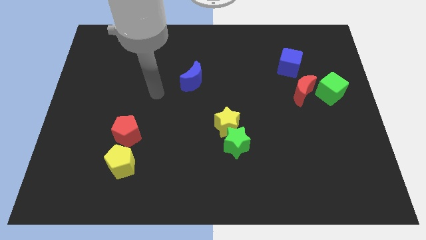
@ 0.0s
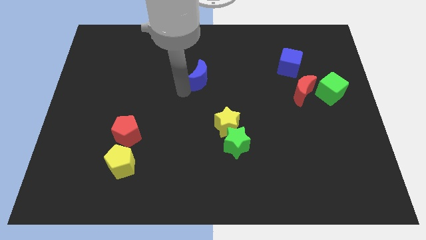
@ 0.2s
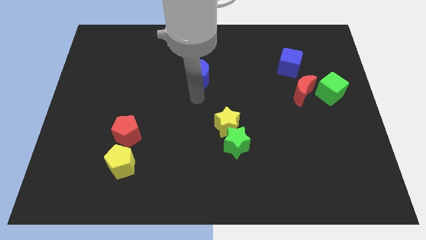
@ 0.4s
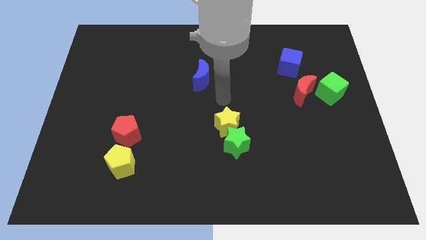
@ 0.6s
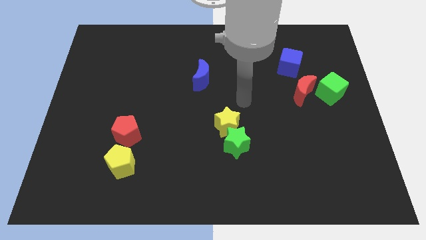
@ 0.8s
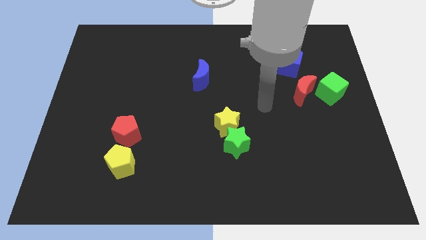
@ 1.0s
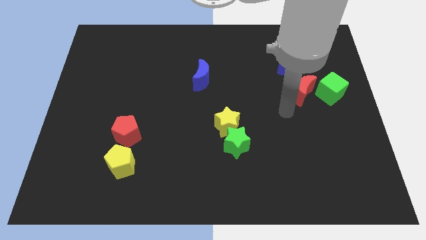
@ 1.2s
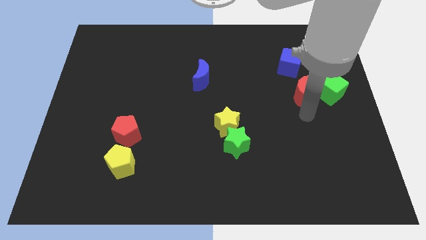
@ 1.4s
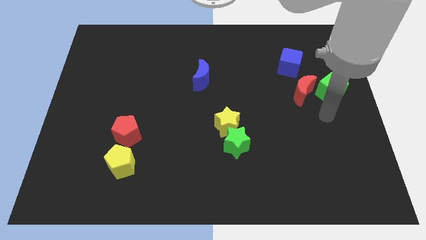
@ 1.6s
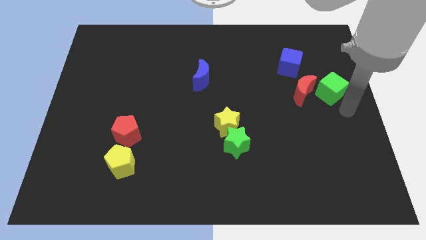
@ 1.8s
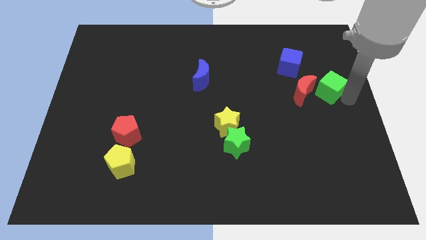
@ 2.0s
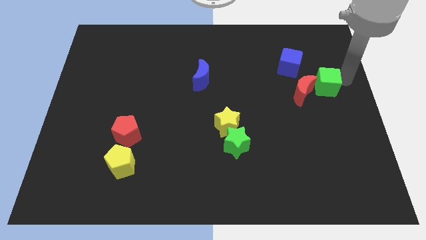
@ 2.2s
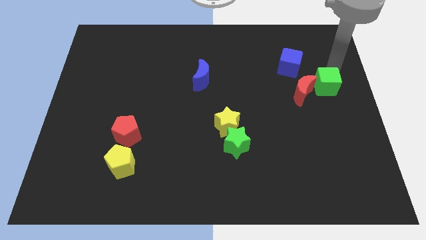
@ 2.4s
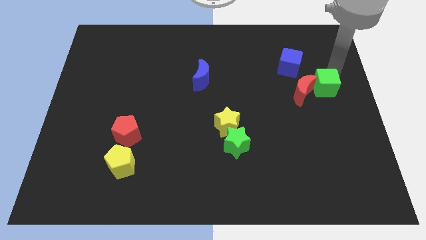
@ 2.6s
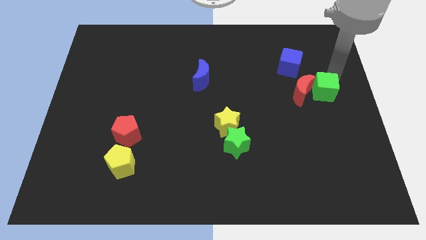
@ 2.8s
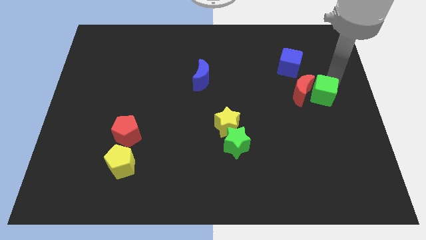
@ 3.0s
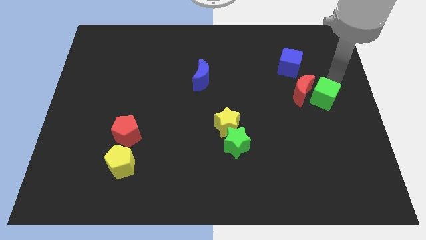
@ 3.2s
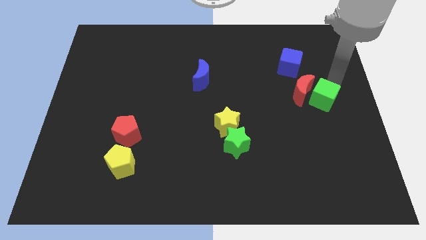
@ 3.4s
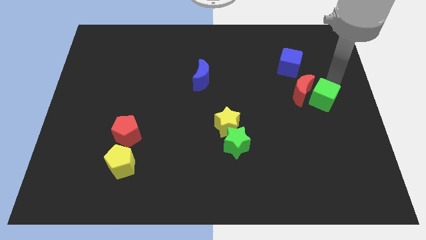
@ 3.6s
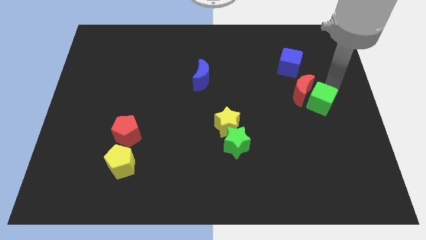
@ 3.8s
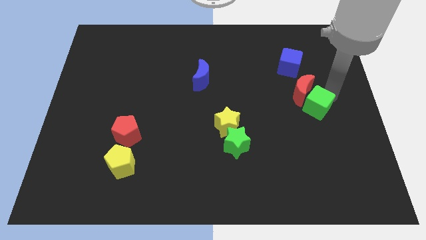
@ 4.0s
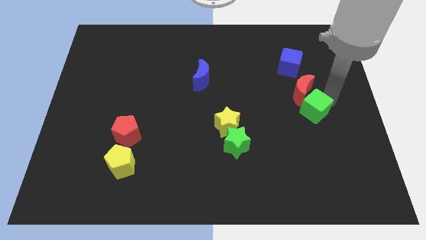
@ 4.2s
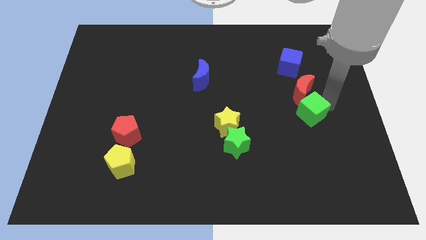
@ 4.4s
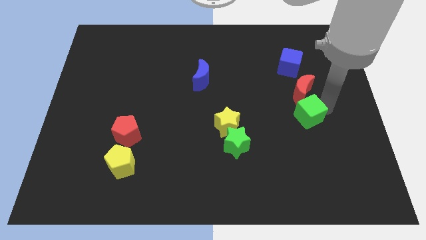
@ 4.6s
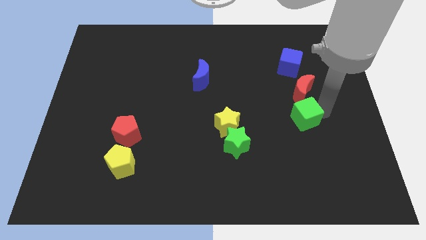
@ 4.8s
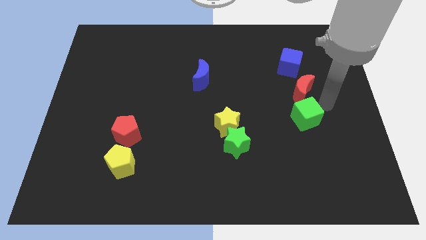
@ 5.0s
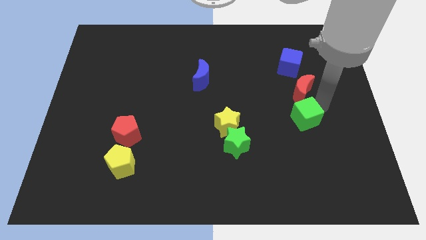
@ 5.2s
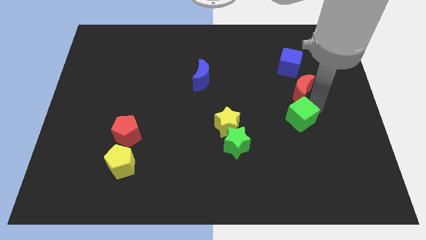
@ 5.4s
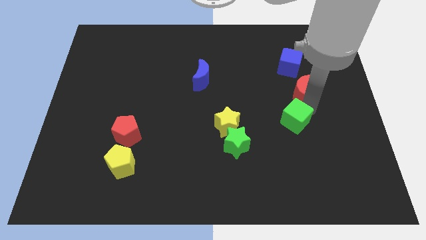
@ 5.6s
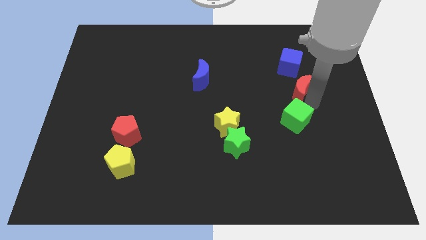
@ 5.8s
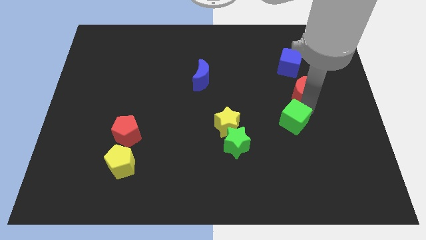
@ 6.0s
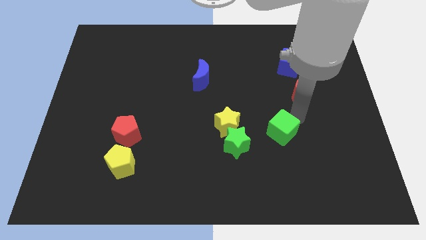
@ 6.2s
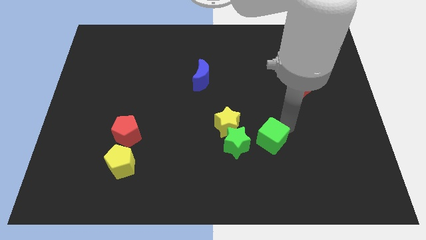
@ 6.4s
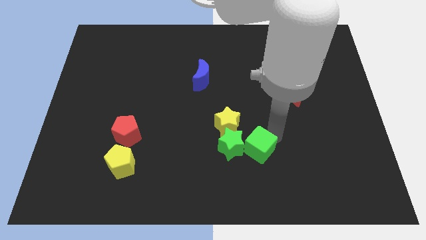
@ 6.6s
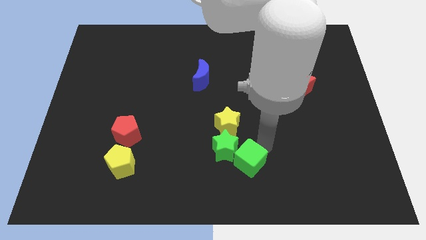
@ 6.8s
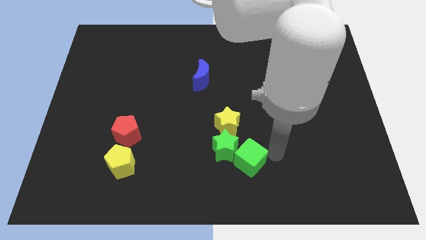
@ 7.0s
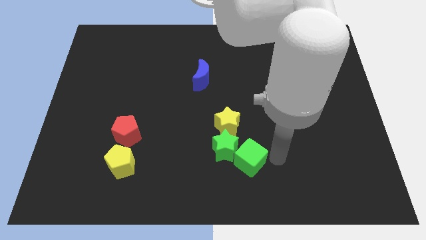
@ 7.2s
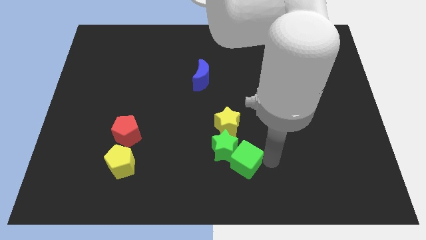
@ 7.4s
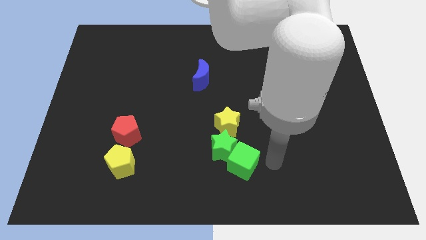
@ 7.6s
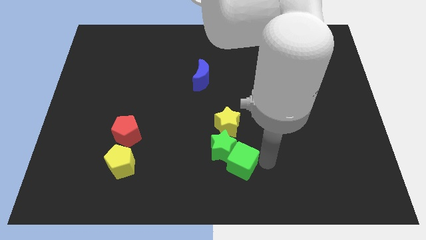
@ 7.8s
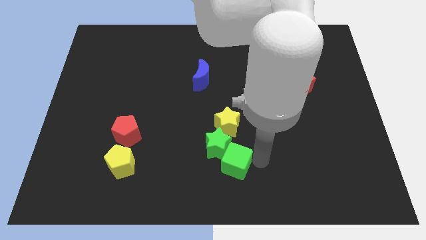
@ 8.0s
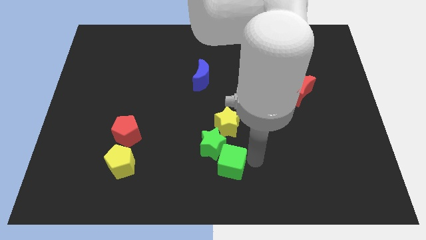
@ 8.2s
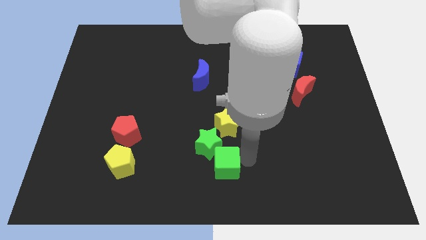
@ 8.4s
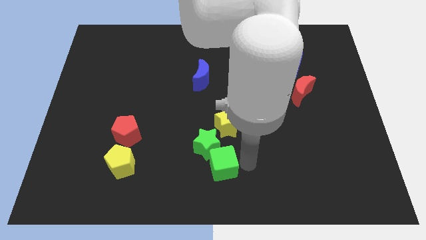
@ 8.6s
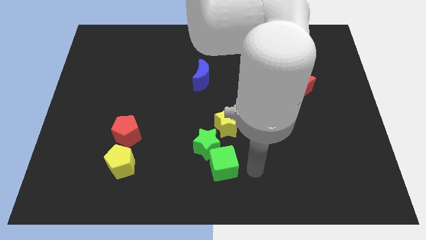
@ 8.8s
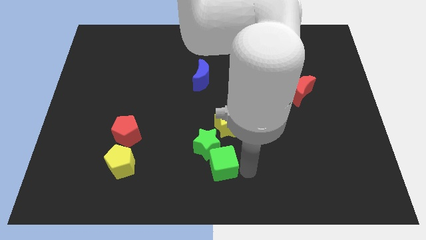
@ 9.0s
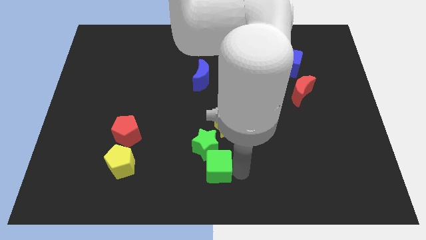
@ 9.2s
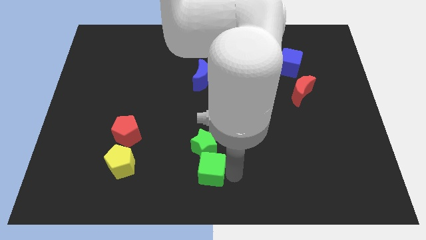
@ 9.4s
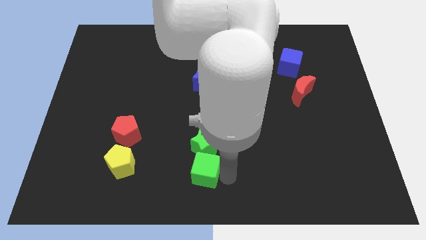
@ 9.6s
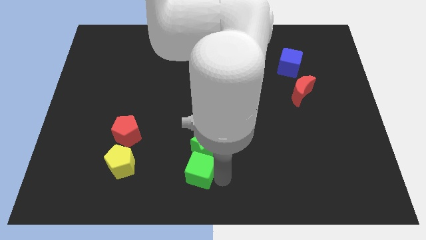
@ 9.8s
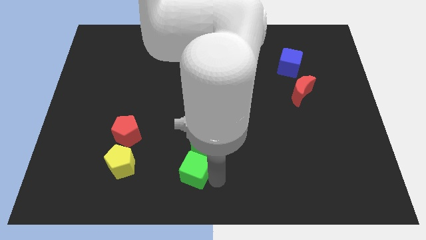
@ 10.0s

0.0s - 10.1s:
move the green cube just right of the yellow pentagon

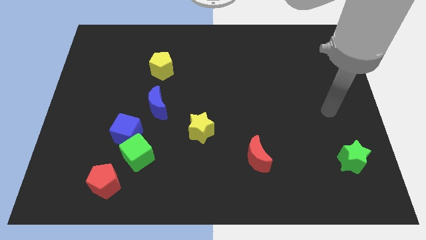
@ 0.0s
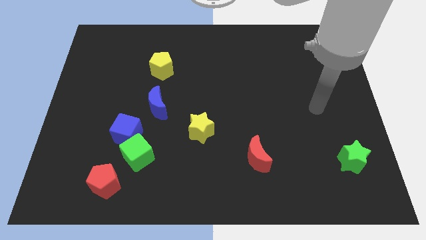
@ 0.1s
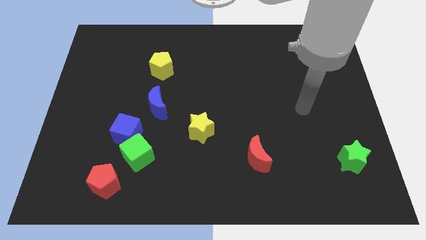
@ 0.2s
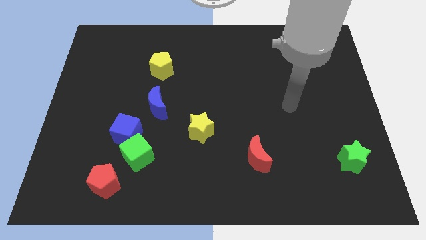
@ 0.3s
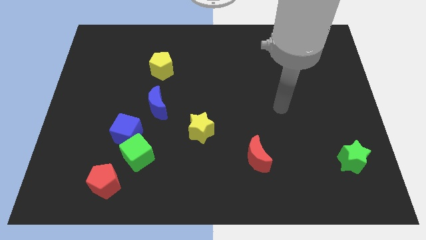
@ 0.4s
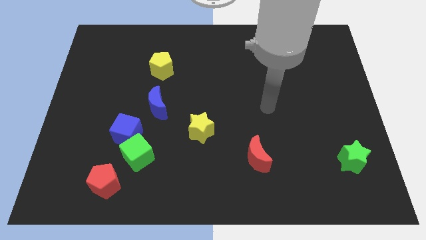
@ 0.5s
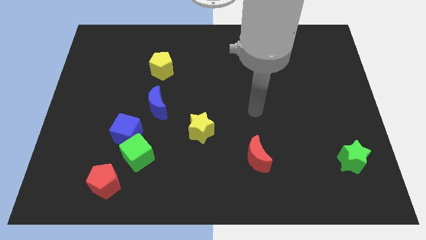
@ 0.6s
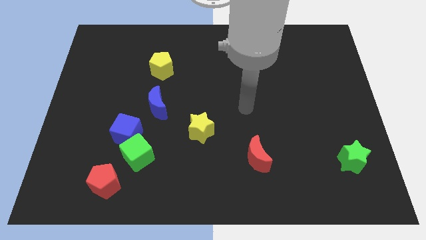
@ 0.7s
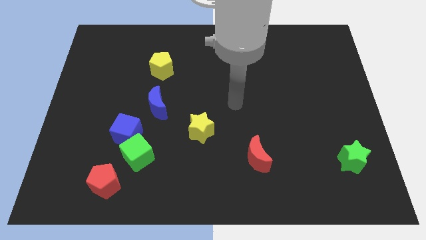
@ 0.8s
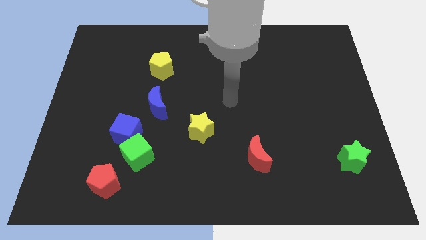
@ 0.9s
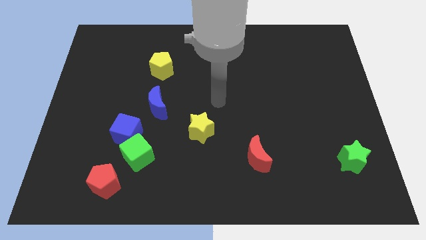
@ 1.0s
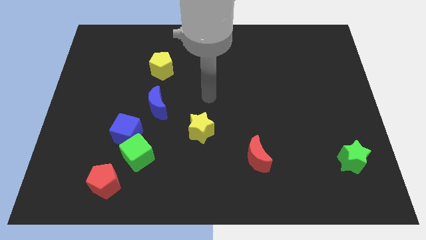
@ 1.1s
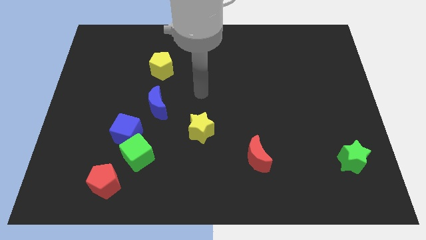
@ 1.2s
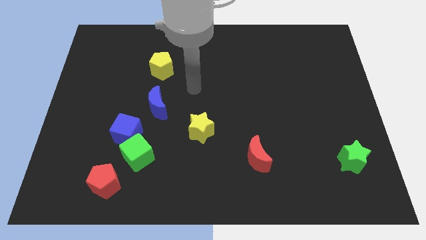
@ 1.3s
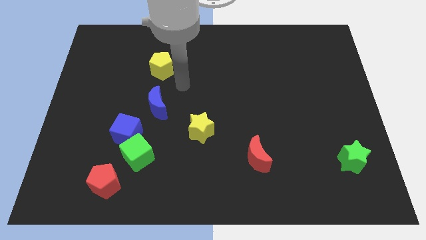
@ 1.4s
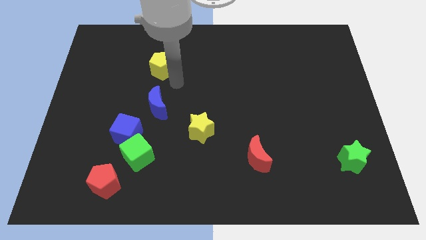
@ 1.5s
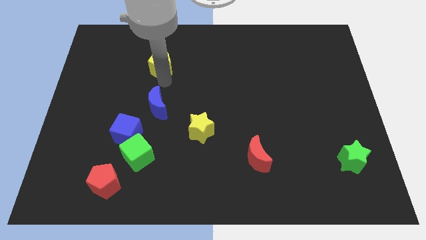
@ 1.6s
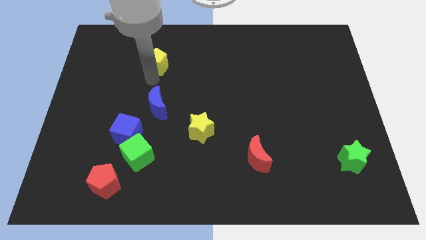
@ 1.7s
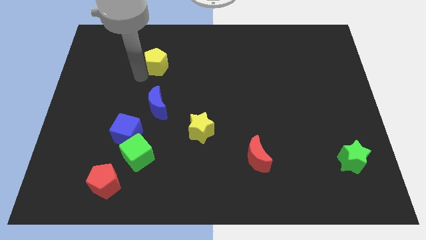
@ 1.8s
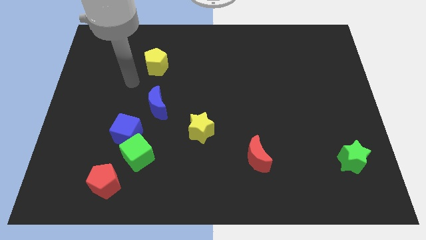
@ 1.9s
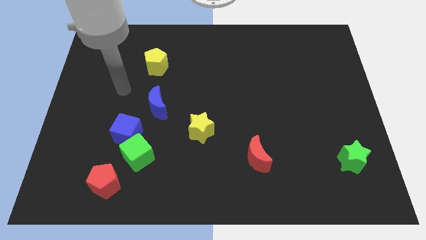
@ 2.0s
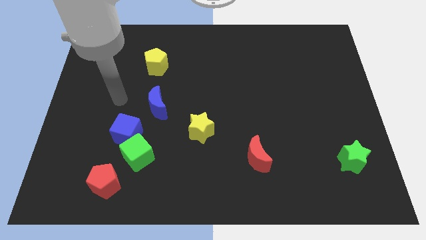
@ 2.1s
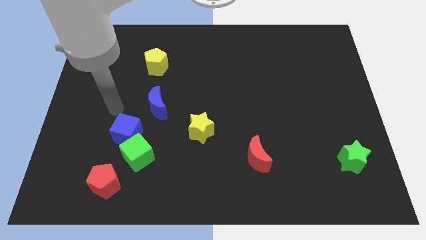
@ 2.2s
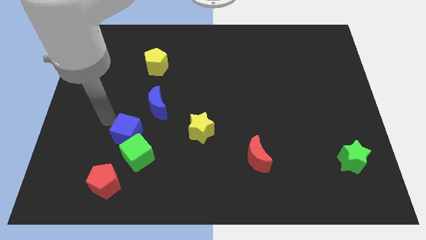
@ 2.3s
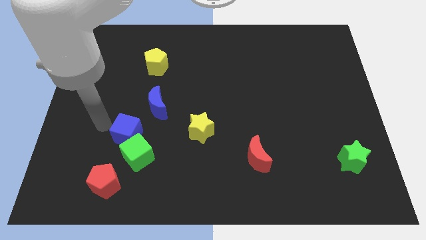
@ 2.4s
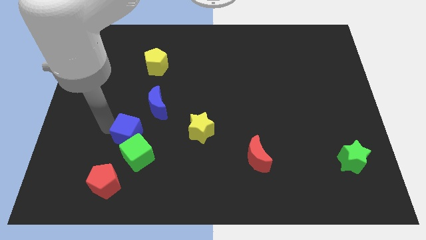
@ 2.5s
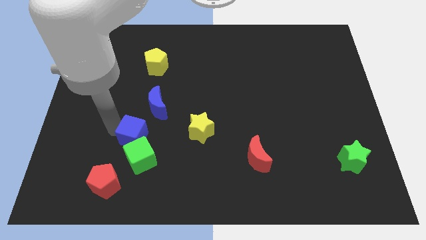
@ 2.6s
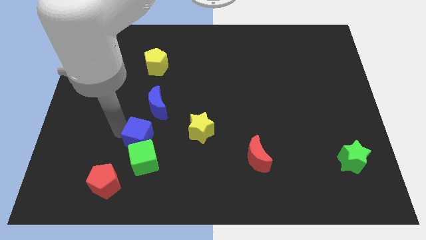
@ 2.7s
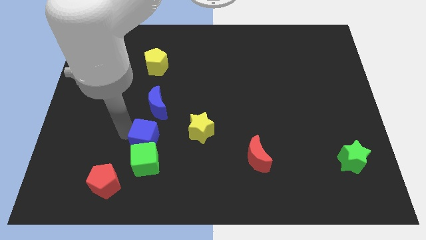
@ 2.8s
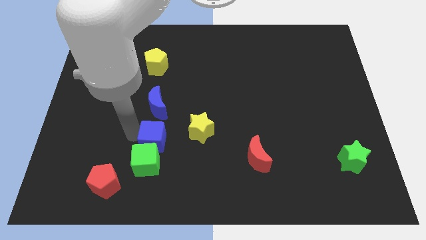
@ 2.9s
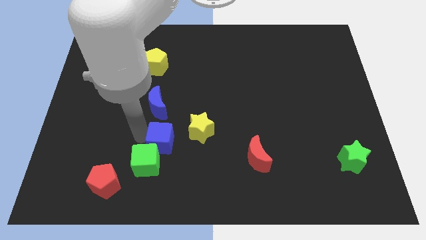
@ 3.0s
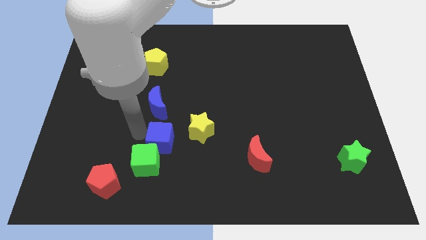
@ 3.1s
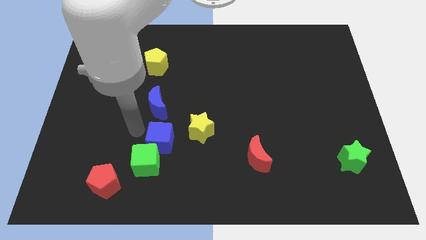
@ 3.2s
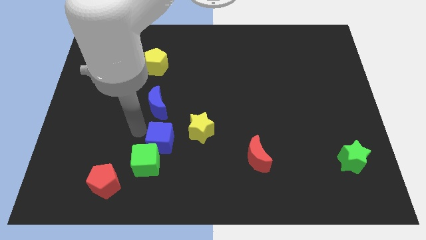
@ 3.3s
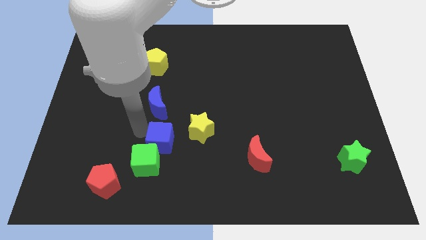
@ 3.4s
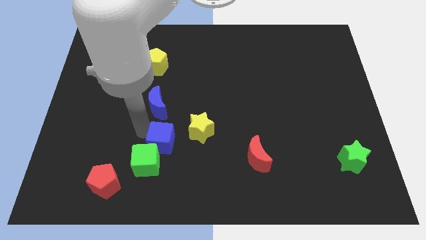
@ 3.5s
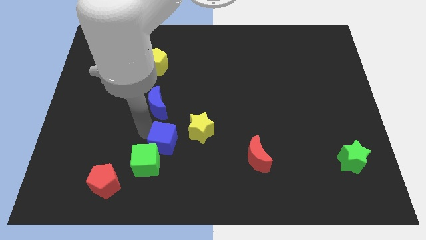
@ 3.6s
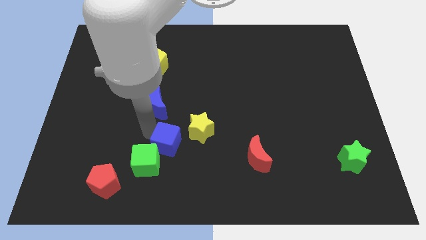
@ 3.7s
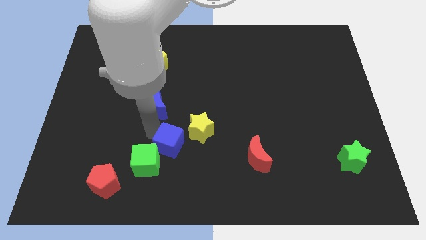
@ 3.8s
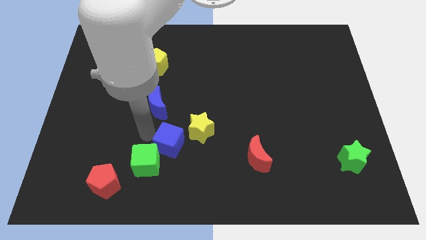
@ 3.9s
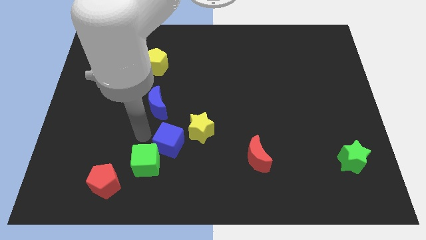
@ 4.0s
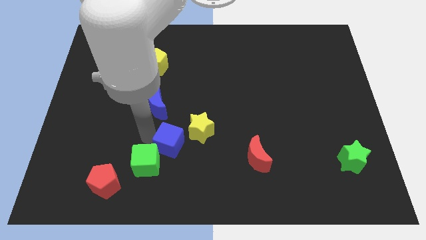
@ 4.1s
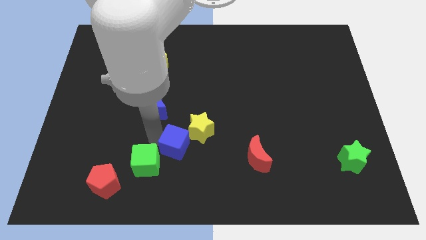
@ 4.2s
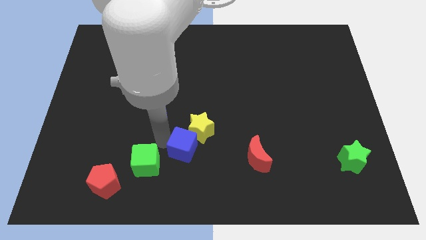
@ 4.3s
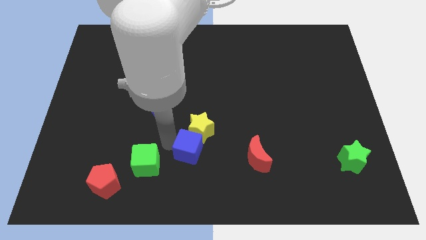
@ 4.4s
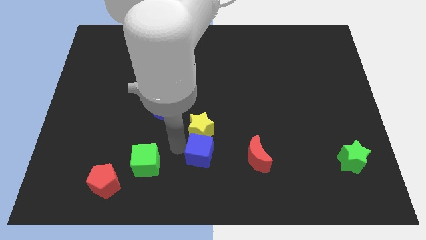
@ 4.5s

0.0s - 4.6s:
put the blue cube to the bottom right of the yellow star
